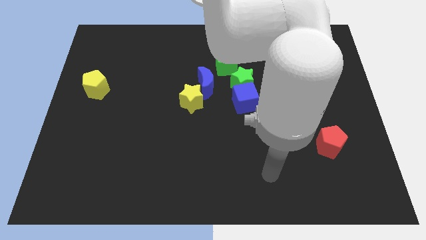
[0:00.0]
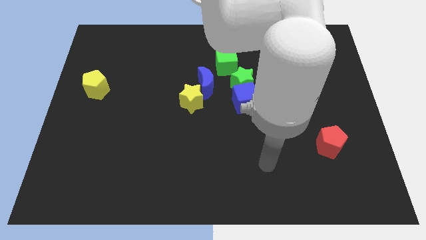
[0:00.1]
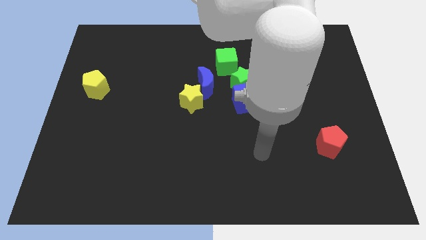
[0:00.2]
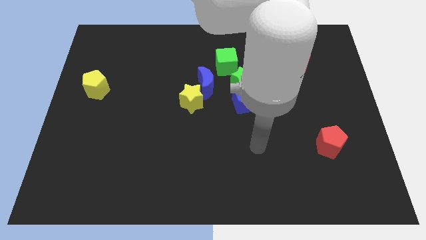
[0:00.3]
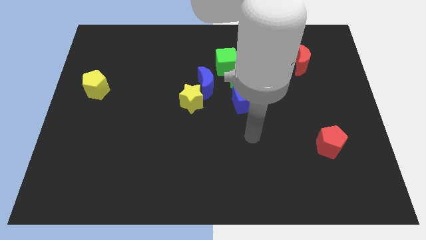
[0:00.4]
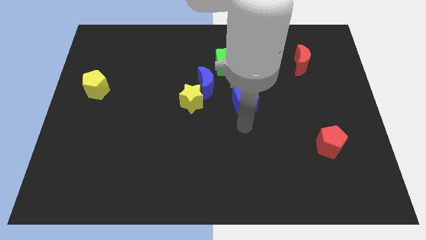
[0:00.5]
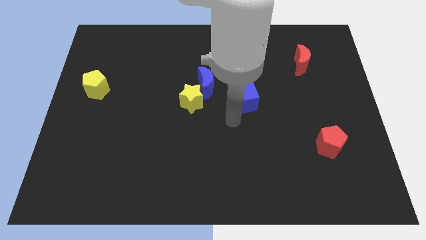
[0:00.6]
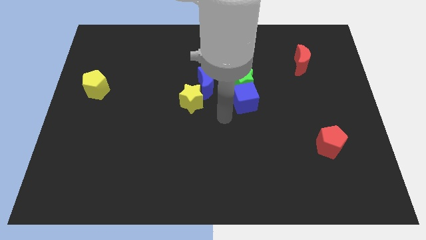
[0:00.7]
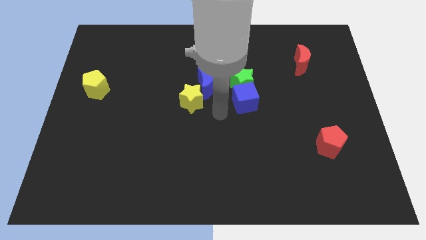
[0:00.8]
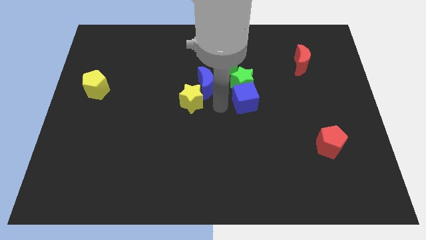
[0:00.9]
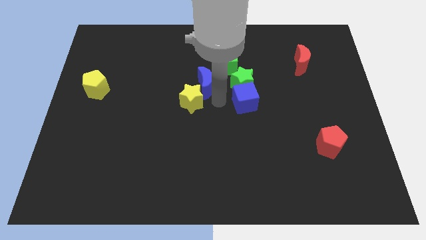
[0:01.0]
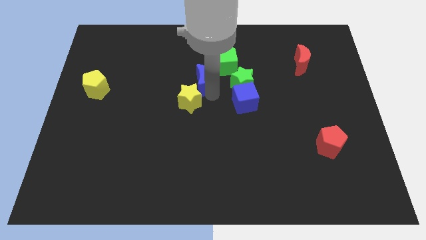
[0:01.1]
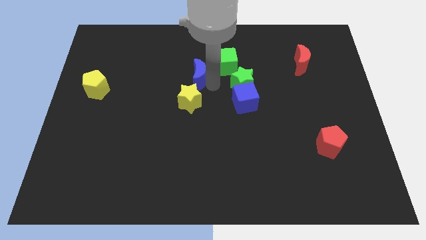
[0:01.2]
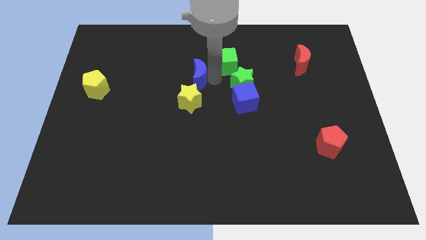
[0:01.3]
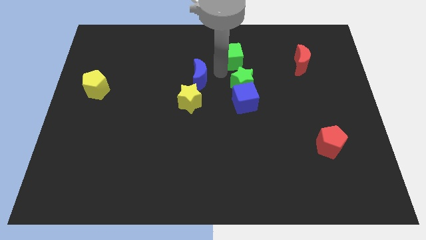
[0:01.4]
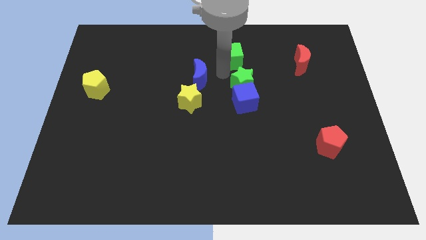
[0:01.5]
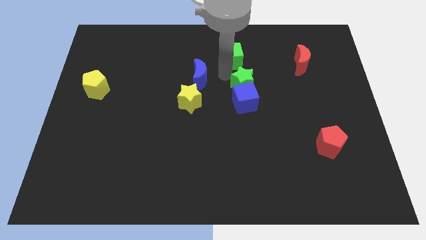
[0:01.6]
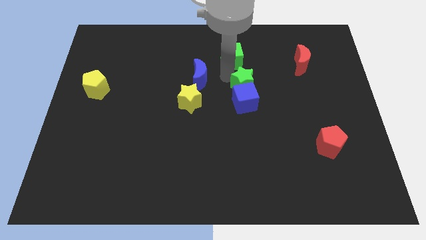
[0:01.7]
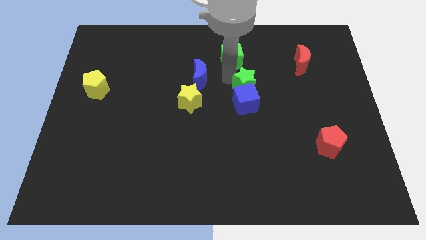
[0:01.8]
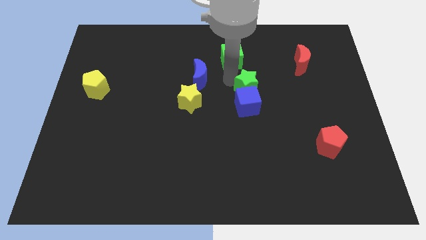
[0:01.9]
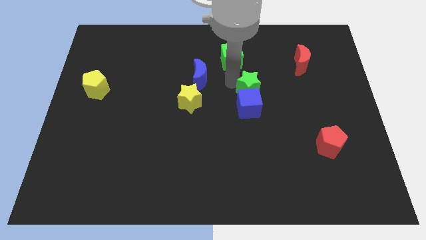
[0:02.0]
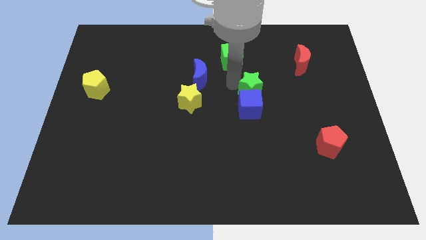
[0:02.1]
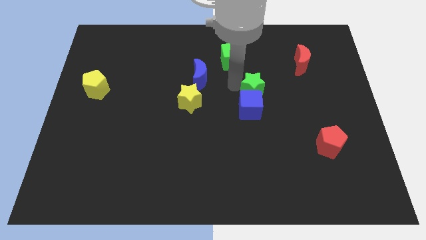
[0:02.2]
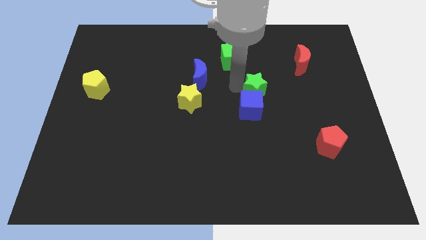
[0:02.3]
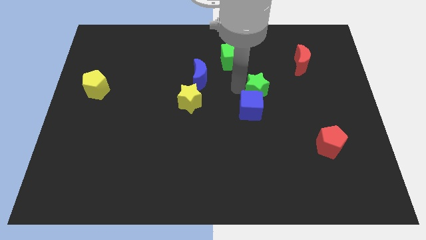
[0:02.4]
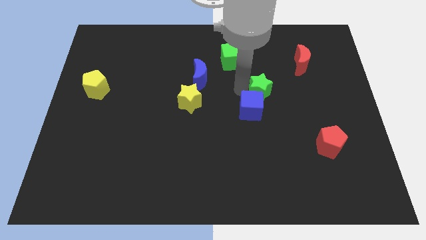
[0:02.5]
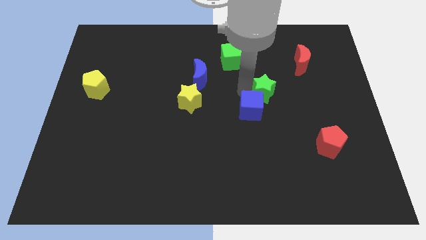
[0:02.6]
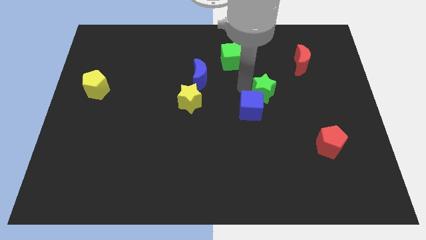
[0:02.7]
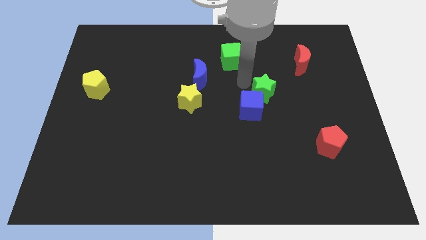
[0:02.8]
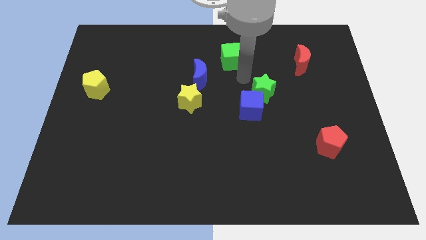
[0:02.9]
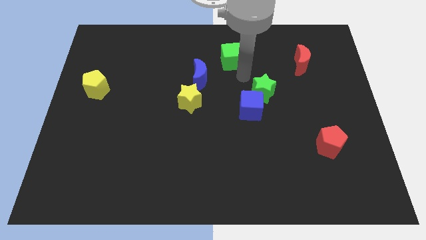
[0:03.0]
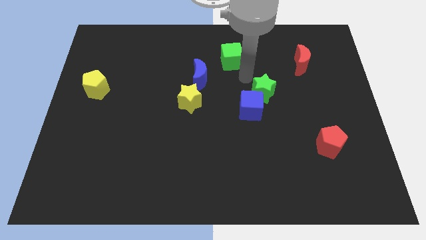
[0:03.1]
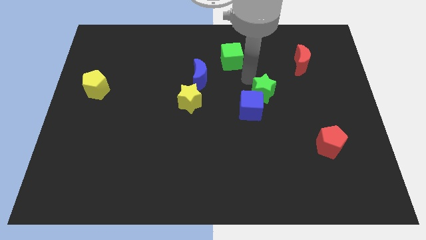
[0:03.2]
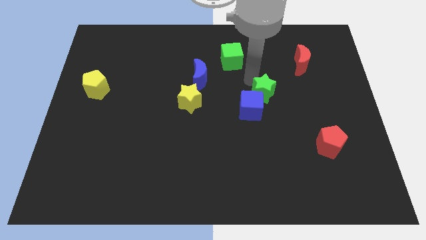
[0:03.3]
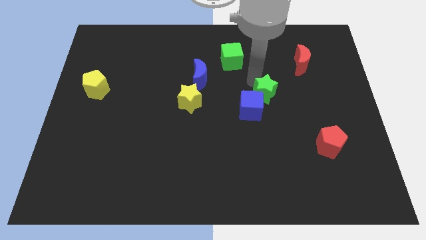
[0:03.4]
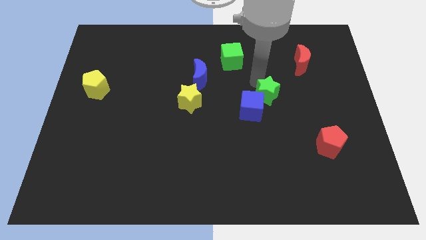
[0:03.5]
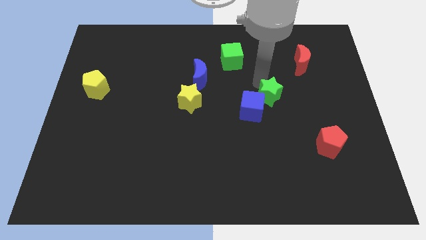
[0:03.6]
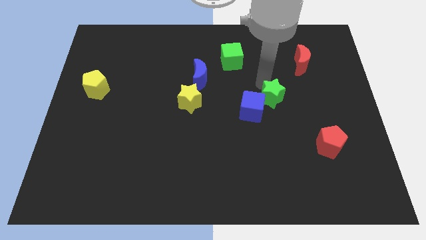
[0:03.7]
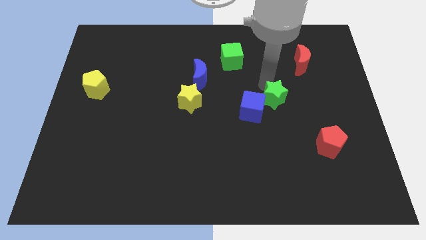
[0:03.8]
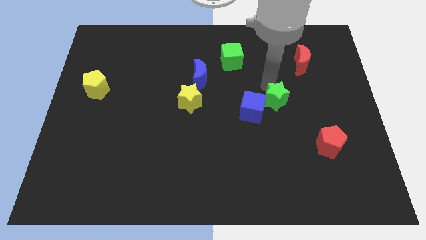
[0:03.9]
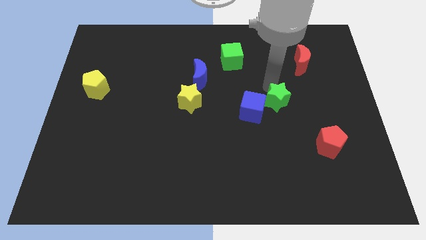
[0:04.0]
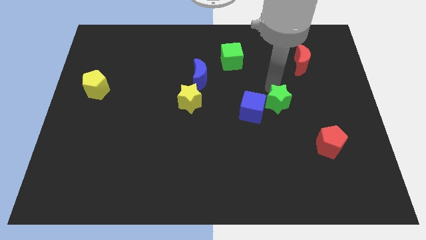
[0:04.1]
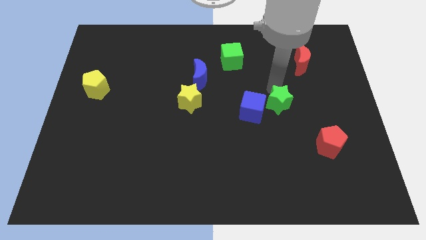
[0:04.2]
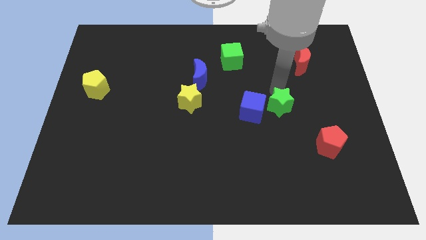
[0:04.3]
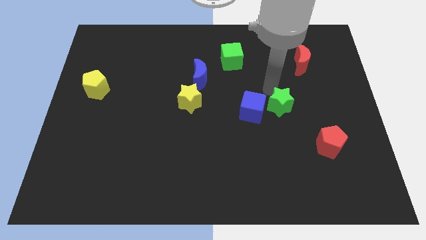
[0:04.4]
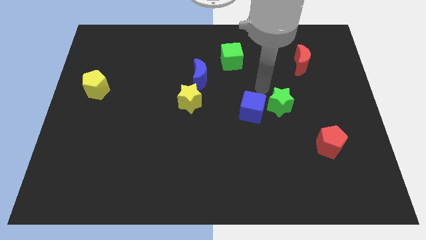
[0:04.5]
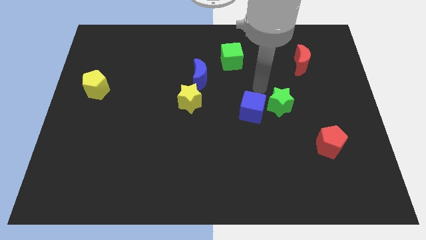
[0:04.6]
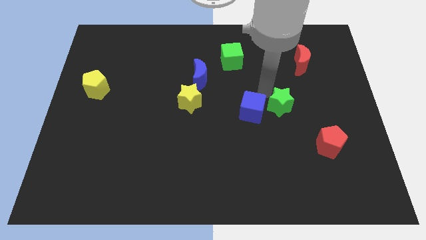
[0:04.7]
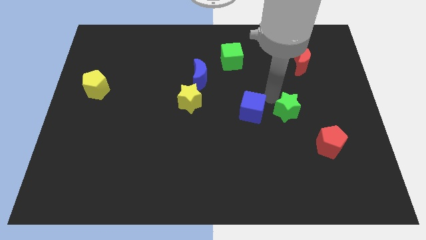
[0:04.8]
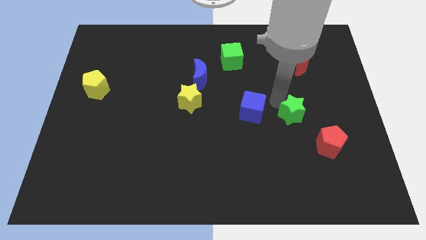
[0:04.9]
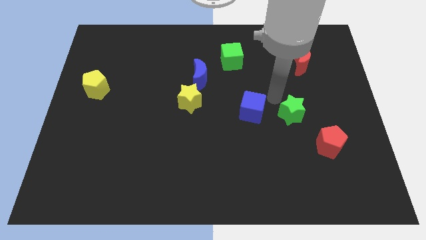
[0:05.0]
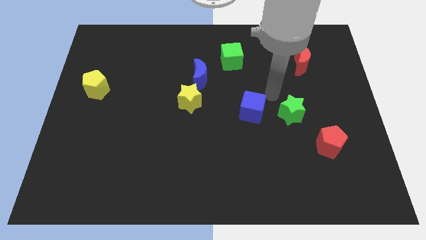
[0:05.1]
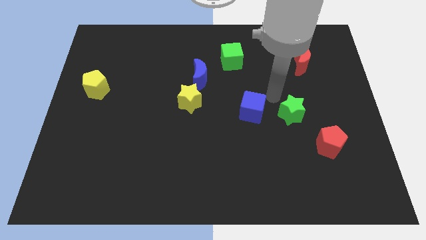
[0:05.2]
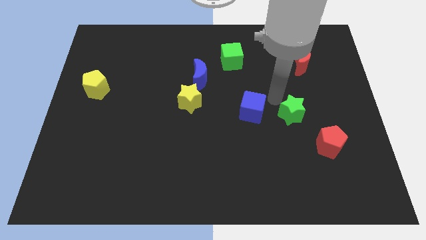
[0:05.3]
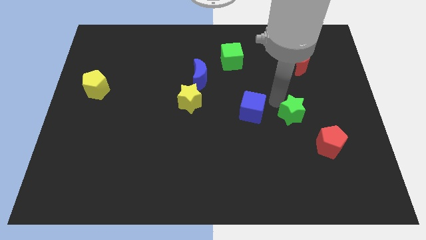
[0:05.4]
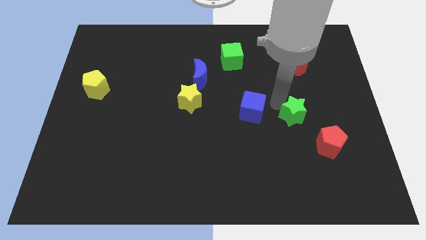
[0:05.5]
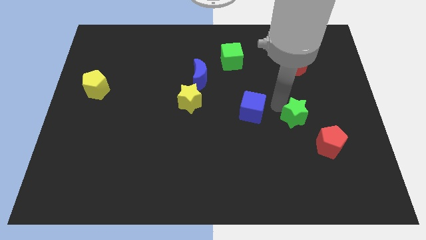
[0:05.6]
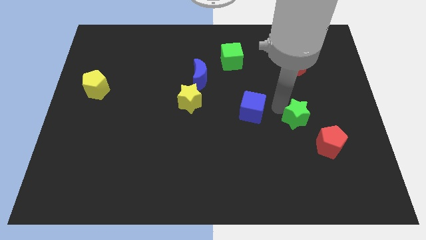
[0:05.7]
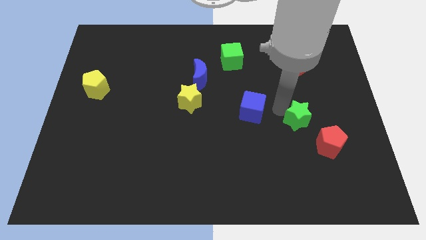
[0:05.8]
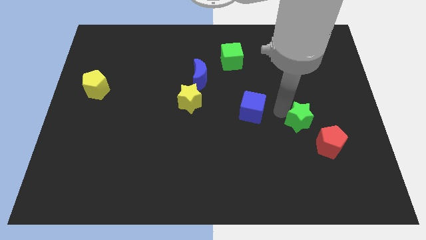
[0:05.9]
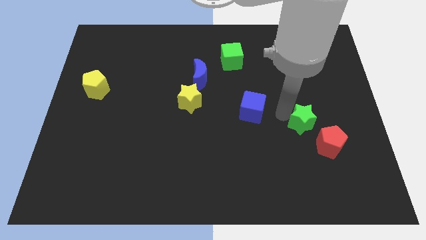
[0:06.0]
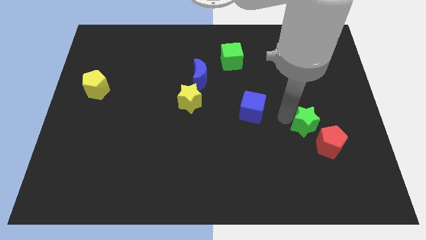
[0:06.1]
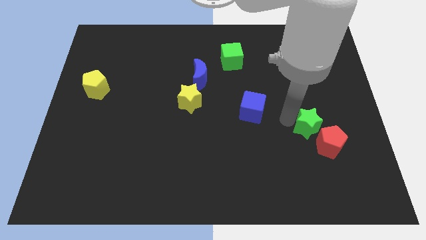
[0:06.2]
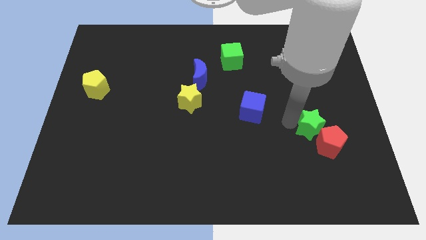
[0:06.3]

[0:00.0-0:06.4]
move the green star to the red pentagon

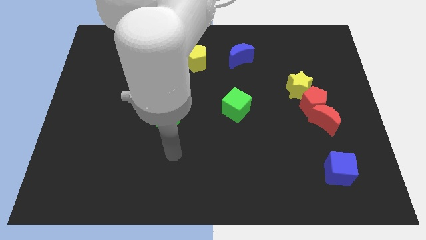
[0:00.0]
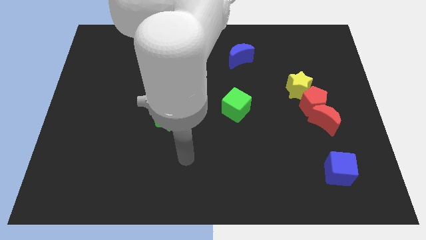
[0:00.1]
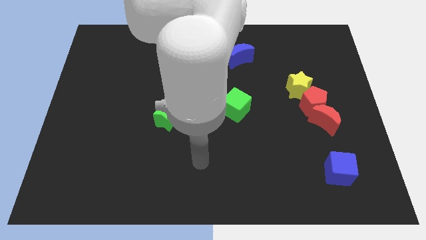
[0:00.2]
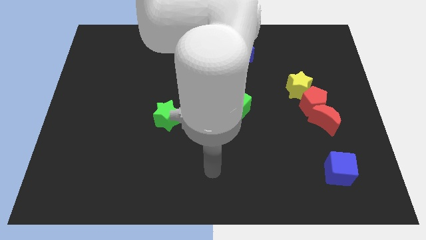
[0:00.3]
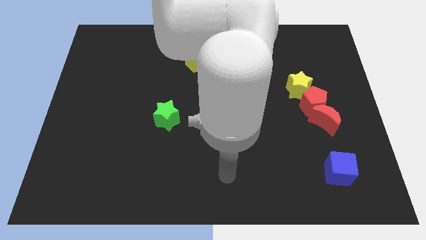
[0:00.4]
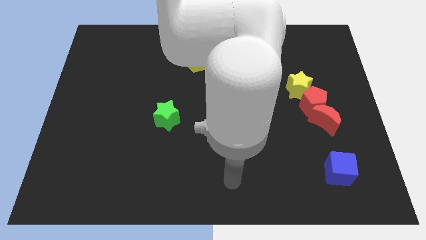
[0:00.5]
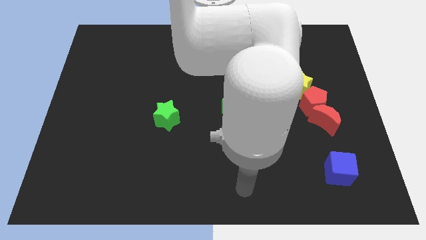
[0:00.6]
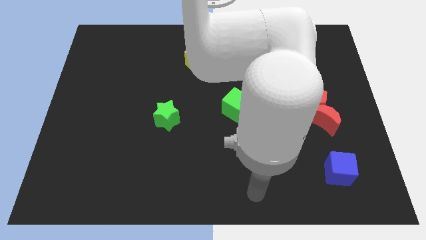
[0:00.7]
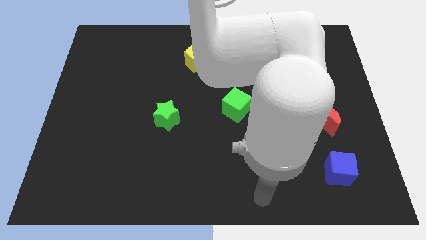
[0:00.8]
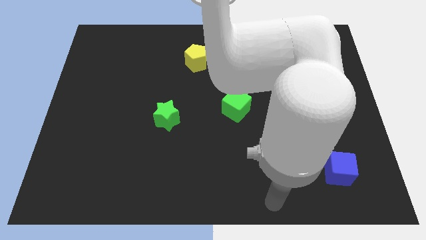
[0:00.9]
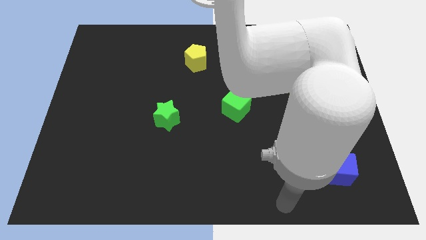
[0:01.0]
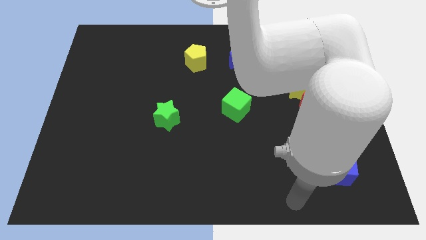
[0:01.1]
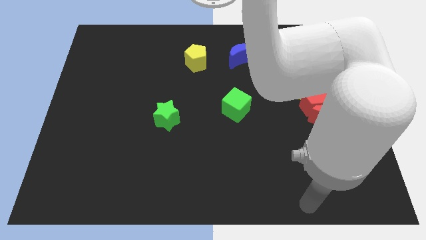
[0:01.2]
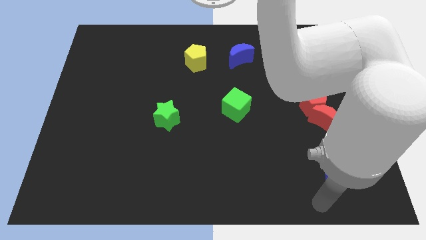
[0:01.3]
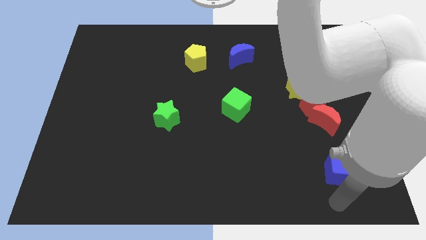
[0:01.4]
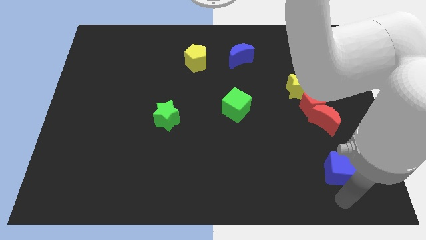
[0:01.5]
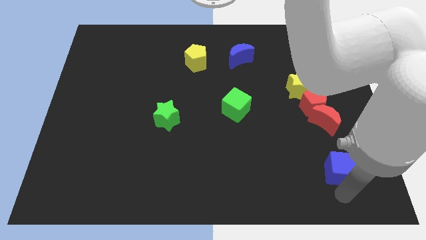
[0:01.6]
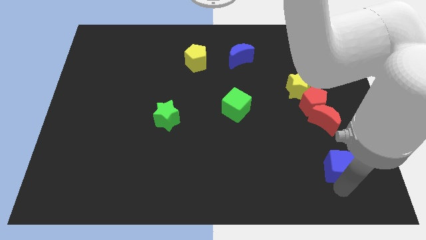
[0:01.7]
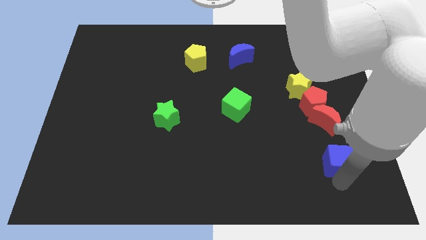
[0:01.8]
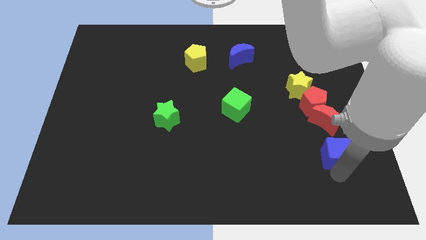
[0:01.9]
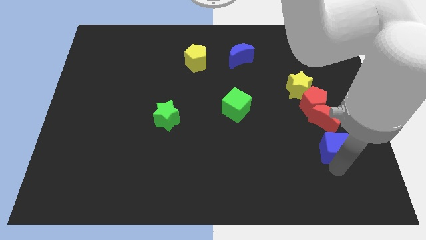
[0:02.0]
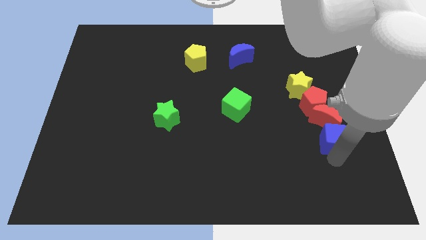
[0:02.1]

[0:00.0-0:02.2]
slide the blue cube to the red moon
